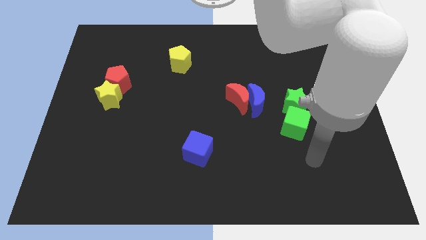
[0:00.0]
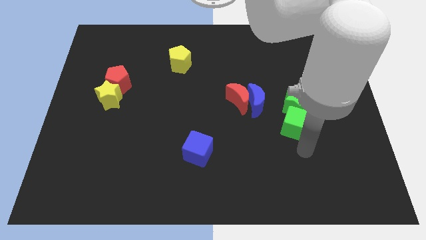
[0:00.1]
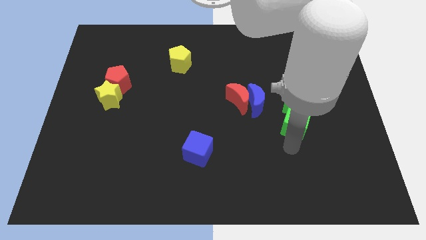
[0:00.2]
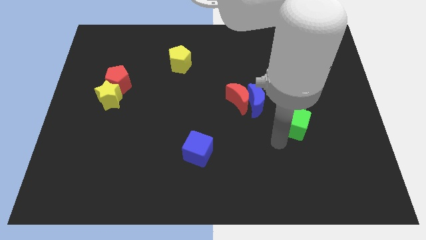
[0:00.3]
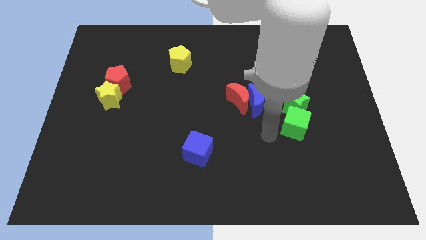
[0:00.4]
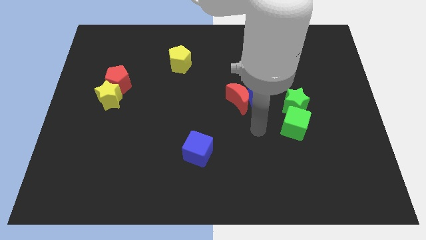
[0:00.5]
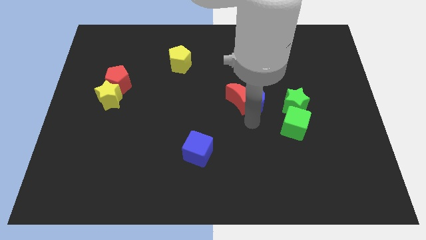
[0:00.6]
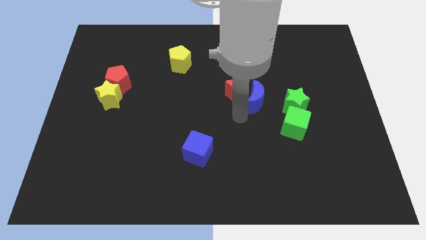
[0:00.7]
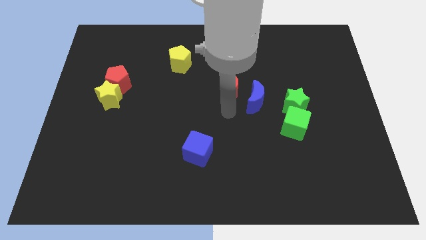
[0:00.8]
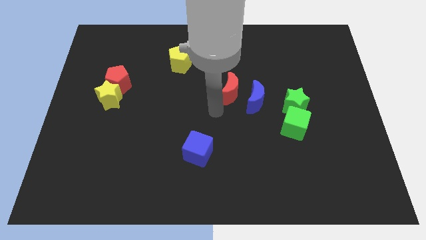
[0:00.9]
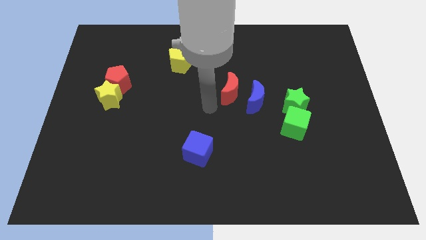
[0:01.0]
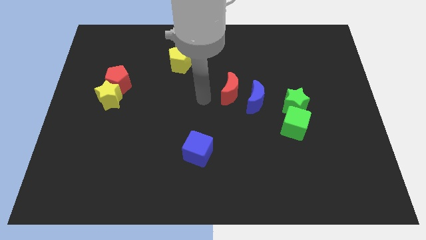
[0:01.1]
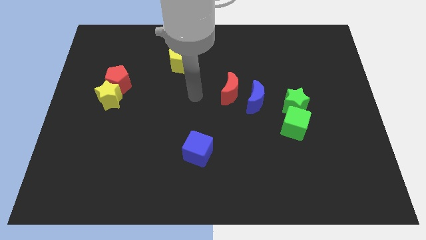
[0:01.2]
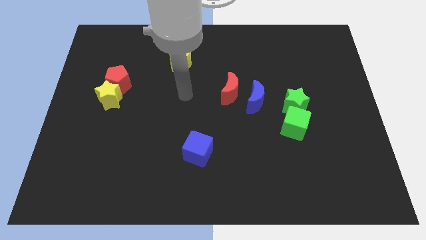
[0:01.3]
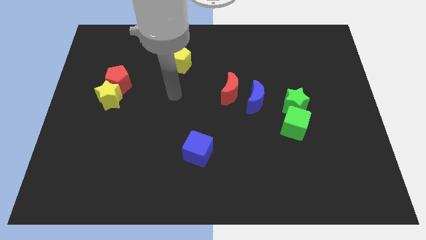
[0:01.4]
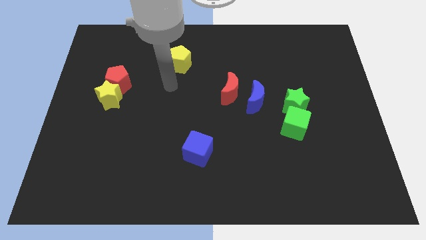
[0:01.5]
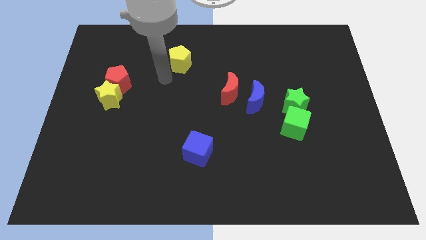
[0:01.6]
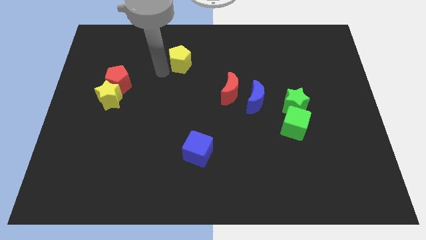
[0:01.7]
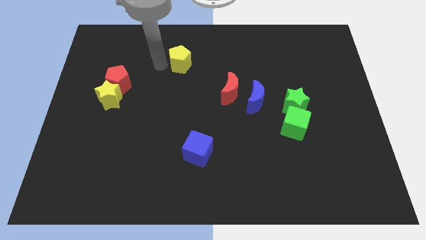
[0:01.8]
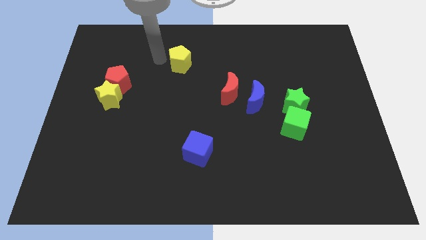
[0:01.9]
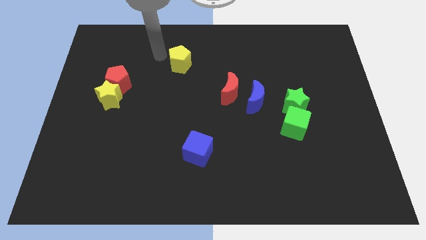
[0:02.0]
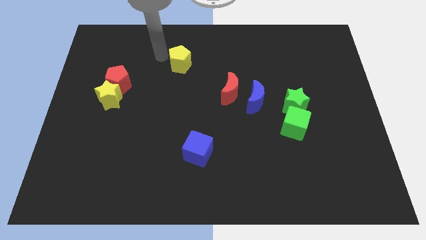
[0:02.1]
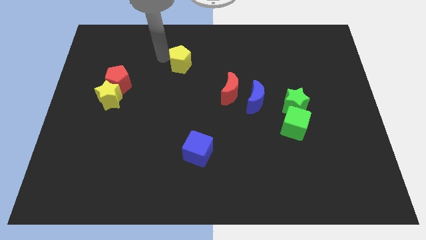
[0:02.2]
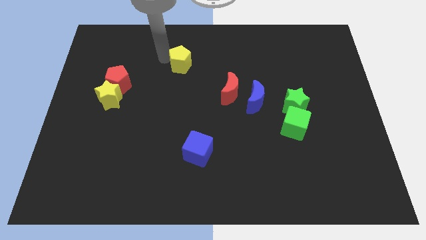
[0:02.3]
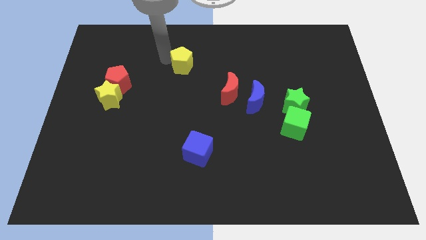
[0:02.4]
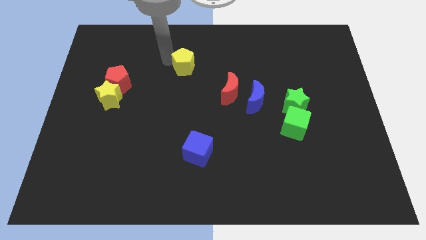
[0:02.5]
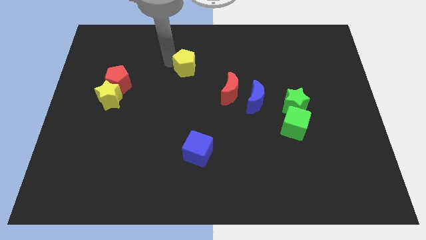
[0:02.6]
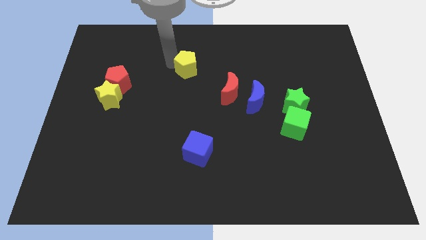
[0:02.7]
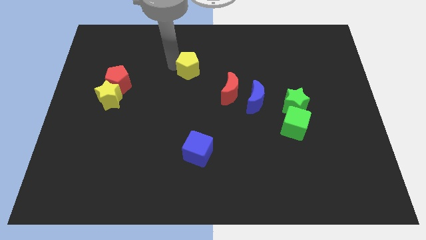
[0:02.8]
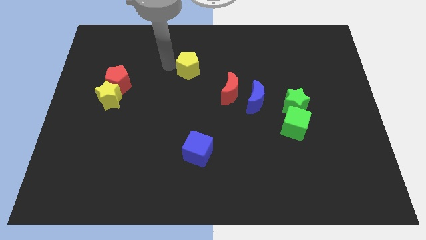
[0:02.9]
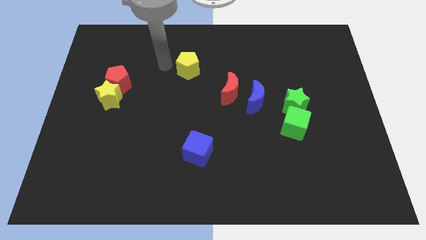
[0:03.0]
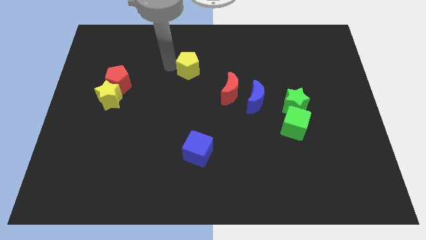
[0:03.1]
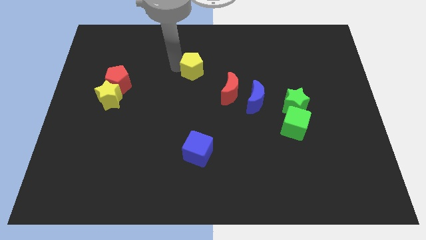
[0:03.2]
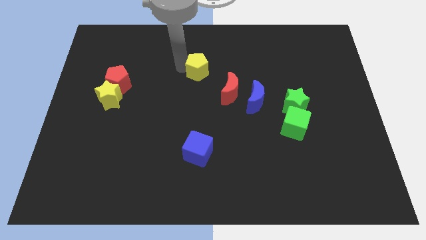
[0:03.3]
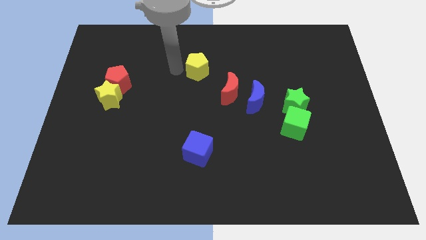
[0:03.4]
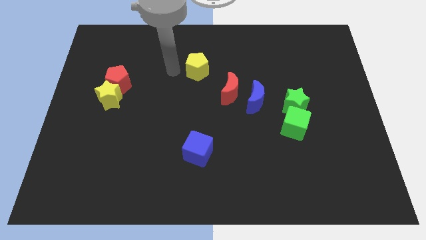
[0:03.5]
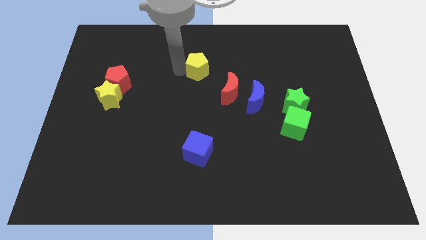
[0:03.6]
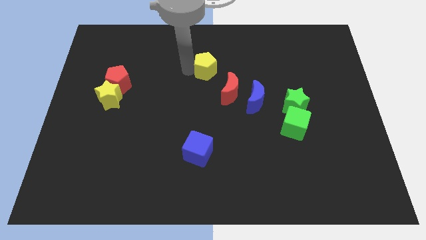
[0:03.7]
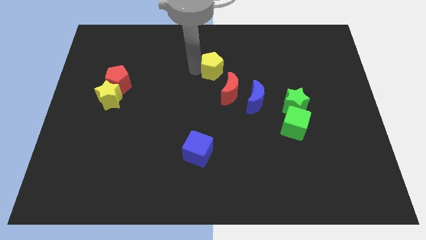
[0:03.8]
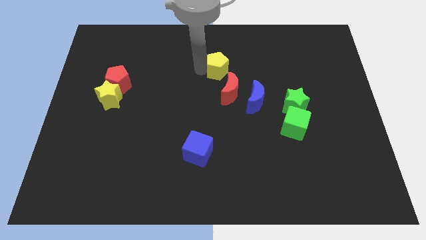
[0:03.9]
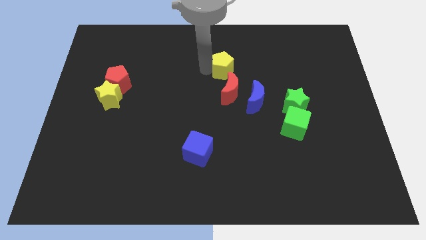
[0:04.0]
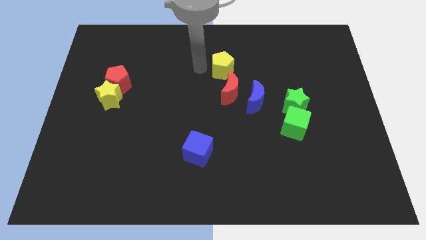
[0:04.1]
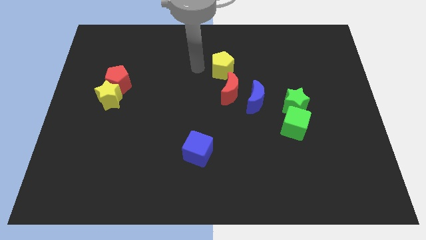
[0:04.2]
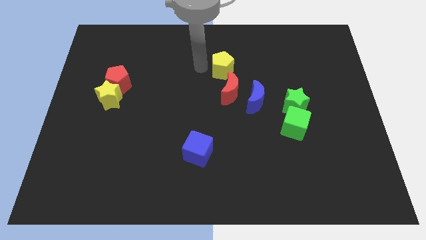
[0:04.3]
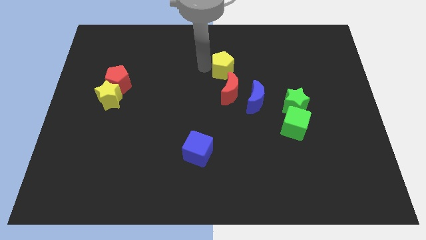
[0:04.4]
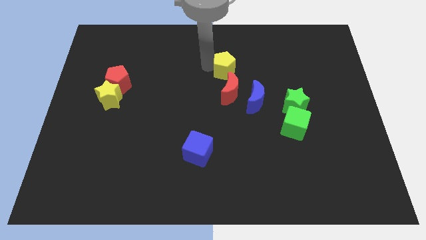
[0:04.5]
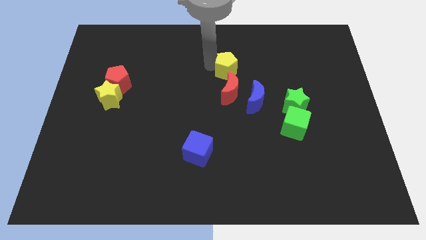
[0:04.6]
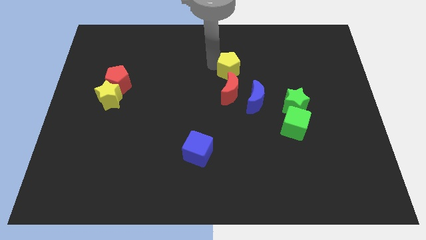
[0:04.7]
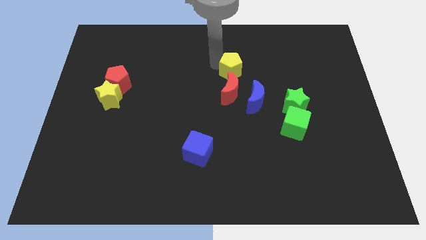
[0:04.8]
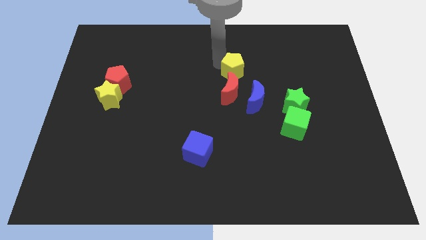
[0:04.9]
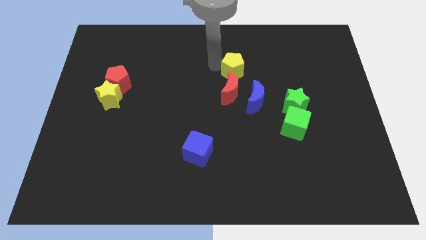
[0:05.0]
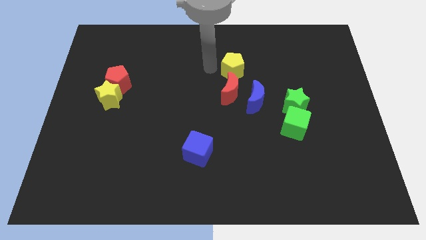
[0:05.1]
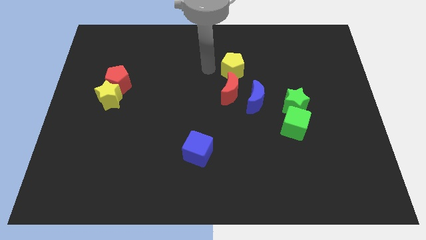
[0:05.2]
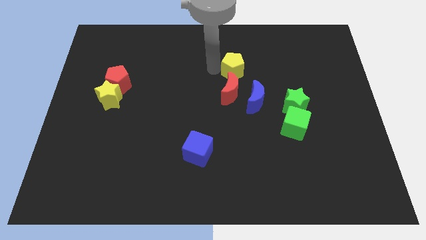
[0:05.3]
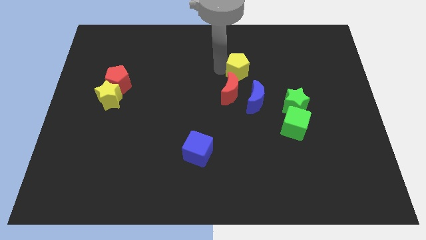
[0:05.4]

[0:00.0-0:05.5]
put the yellow pentagon to the top of the blue moon

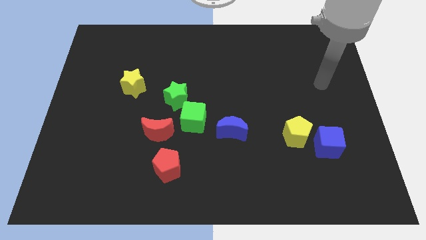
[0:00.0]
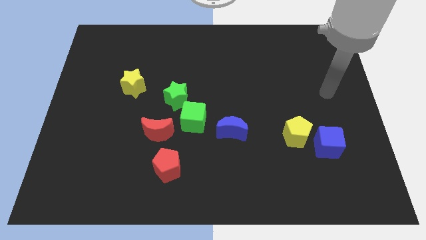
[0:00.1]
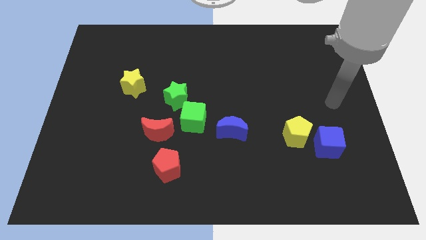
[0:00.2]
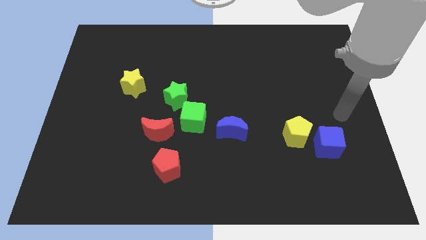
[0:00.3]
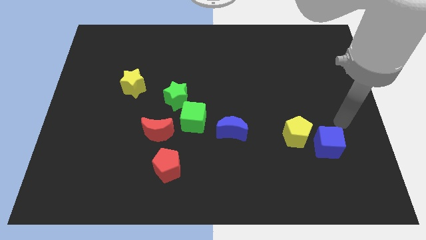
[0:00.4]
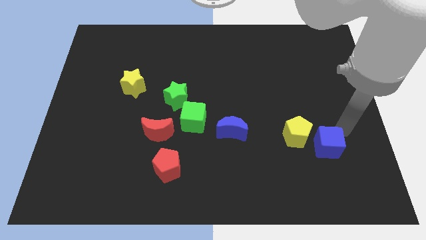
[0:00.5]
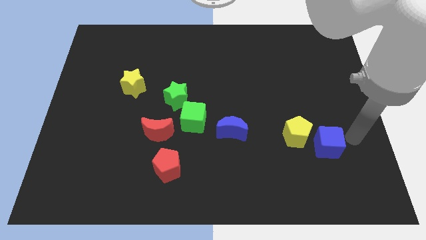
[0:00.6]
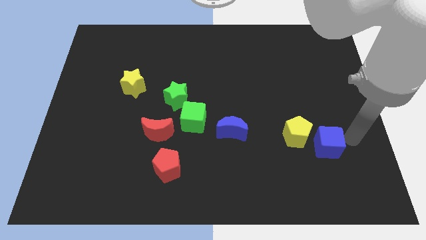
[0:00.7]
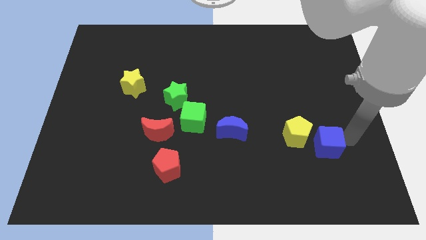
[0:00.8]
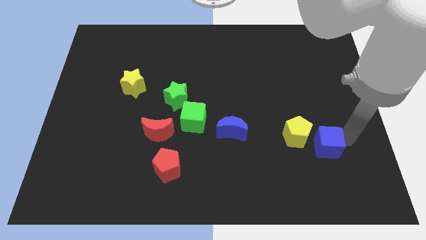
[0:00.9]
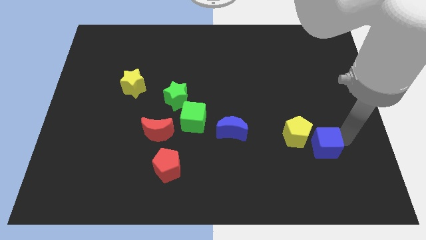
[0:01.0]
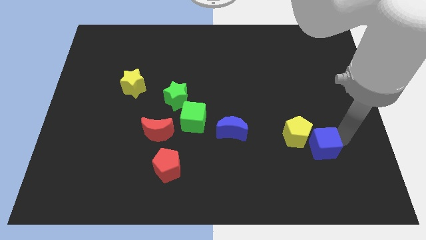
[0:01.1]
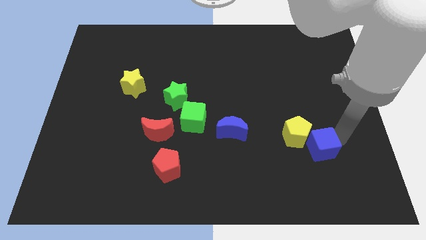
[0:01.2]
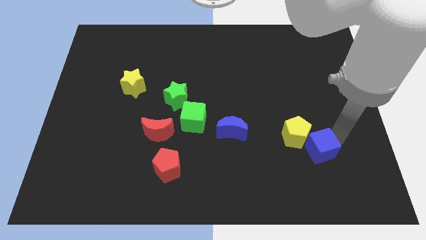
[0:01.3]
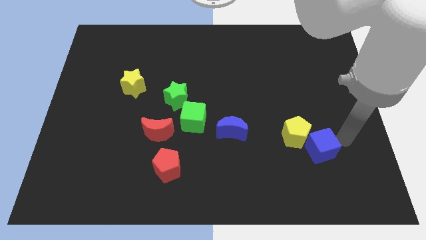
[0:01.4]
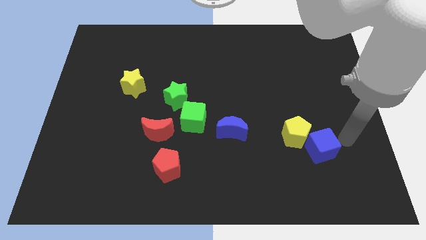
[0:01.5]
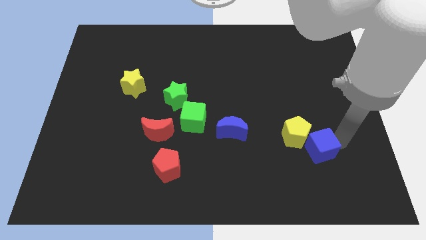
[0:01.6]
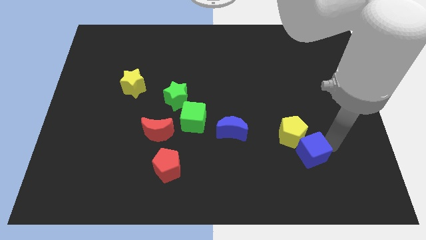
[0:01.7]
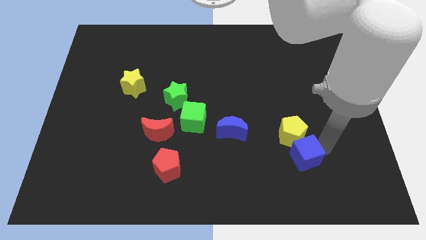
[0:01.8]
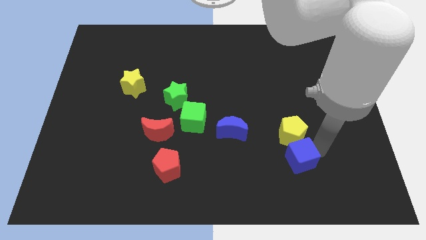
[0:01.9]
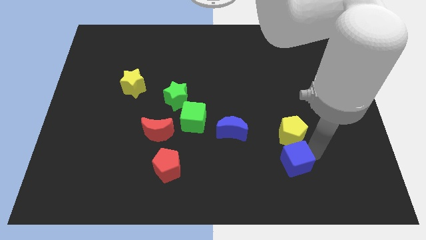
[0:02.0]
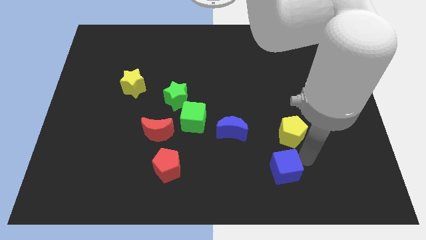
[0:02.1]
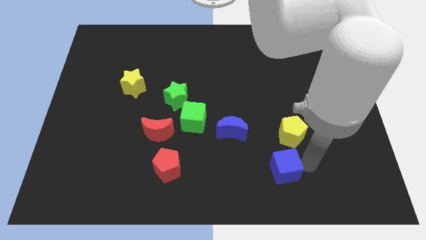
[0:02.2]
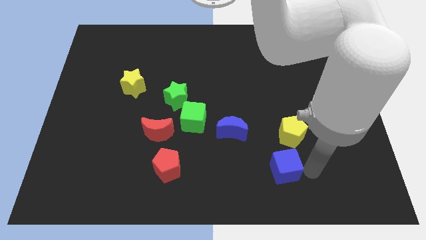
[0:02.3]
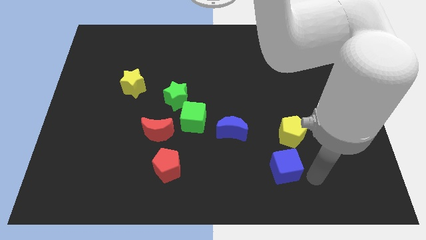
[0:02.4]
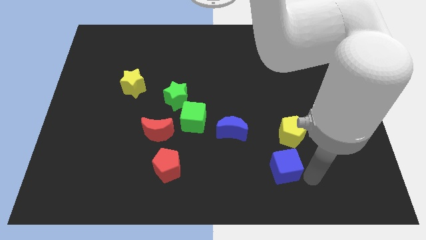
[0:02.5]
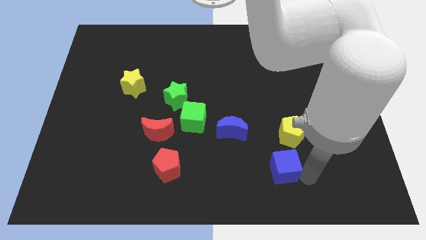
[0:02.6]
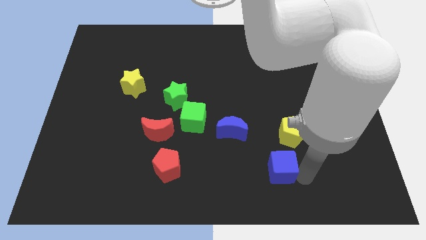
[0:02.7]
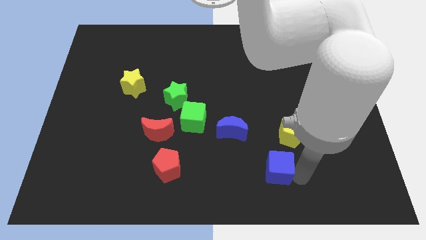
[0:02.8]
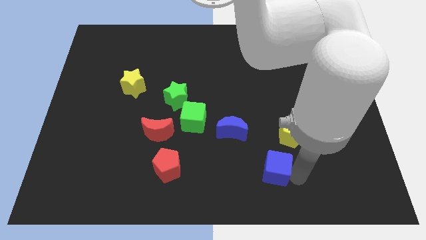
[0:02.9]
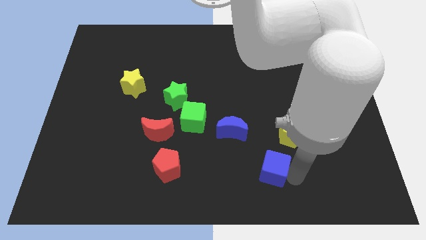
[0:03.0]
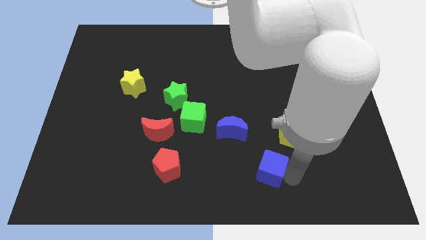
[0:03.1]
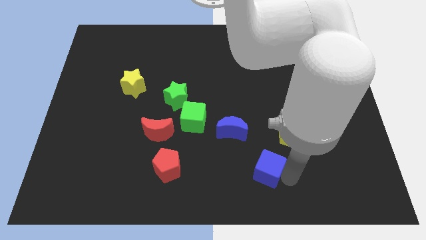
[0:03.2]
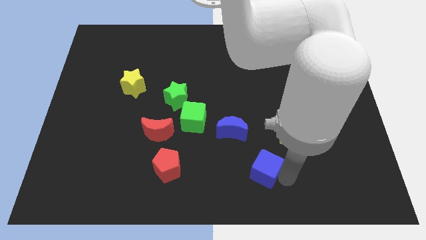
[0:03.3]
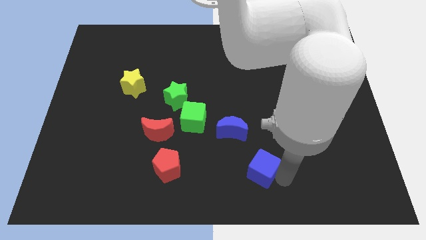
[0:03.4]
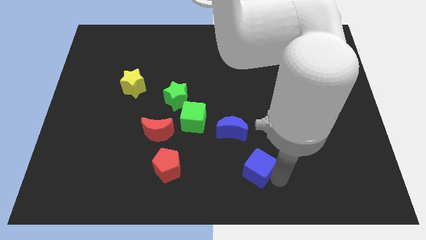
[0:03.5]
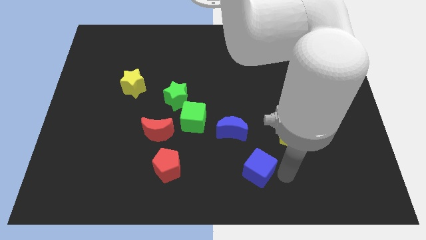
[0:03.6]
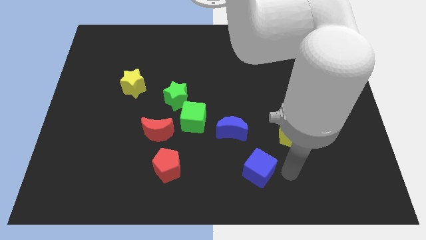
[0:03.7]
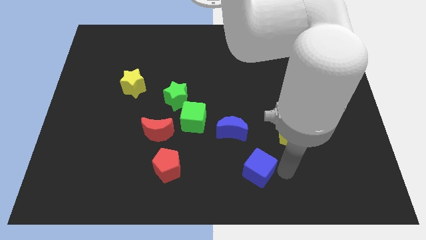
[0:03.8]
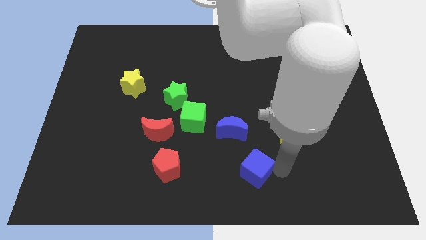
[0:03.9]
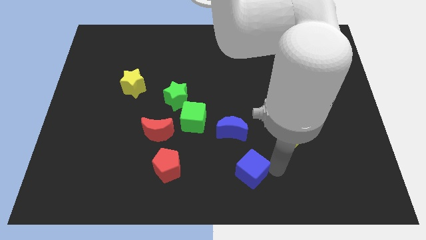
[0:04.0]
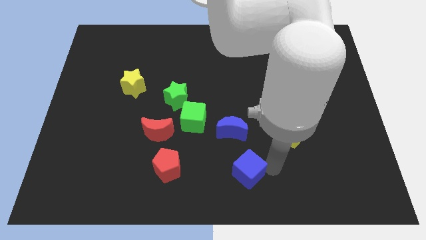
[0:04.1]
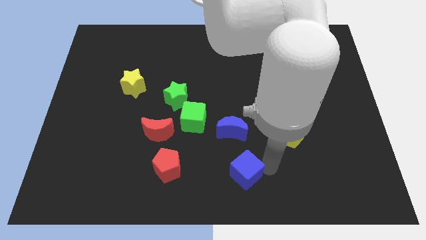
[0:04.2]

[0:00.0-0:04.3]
move the blue cube right of the red pentagon
